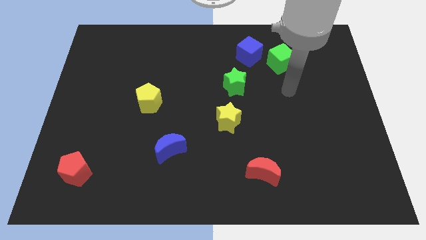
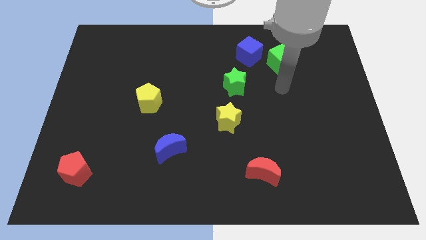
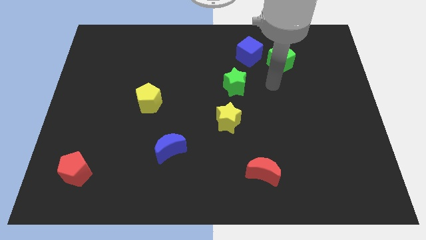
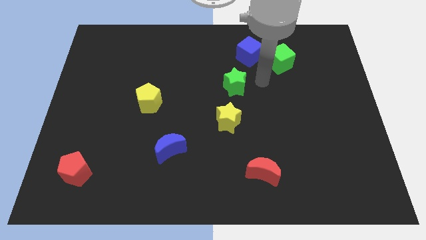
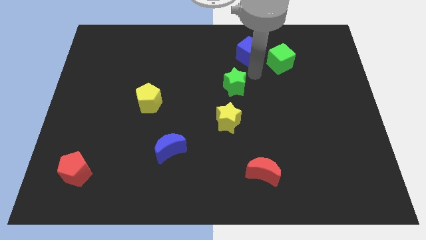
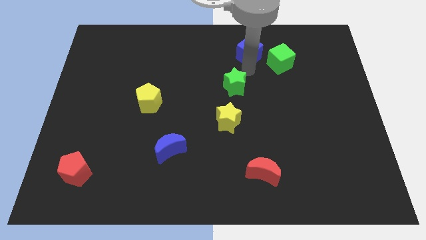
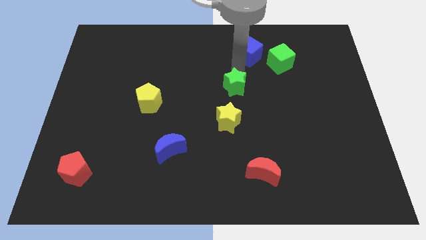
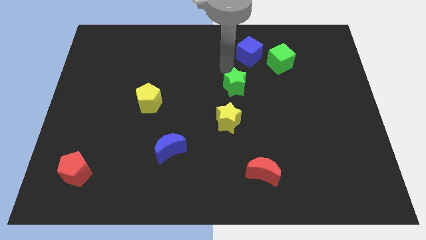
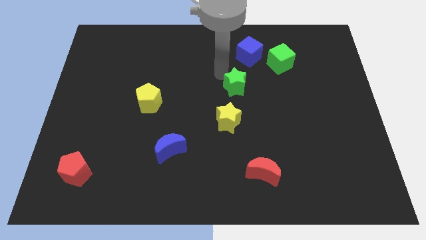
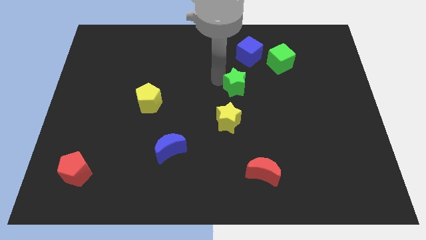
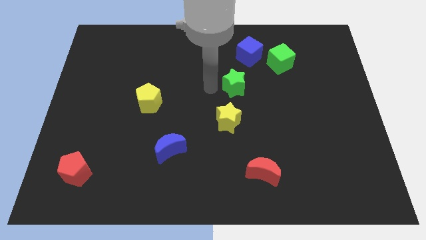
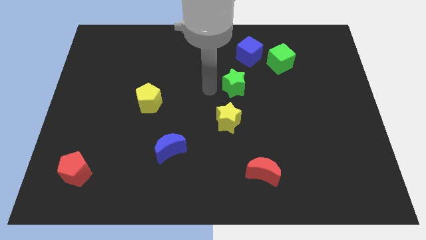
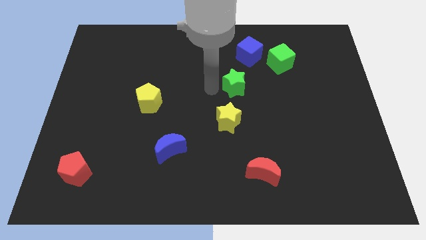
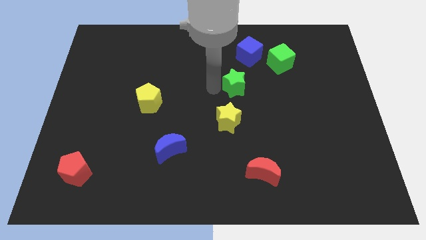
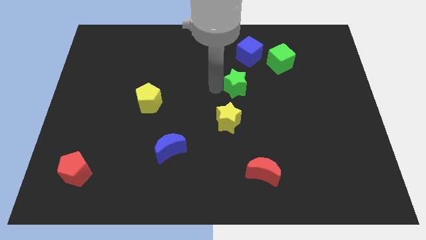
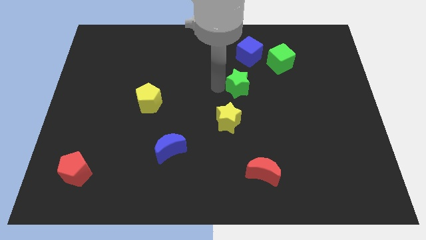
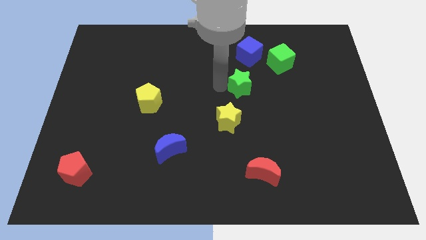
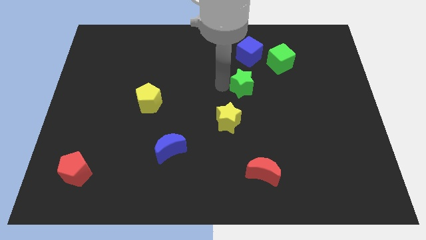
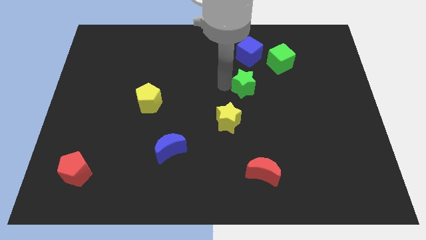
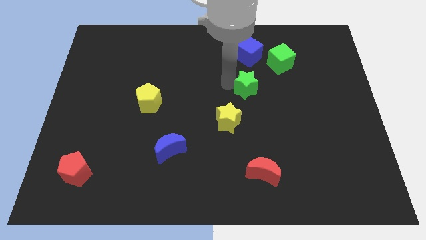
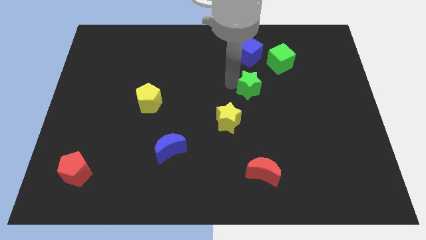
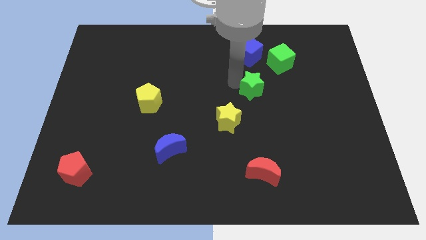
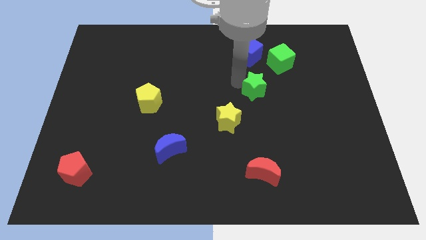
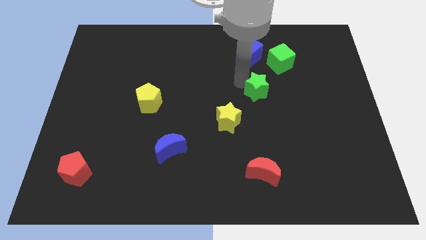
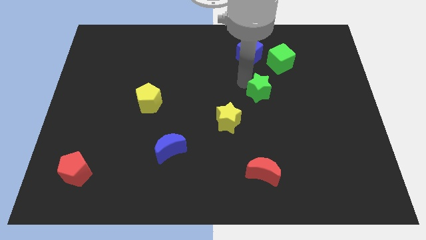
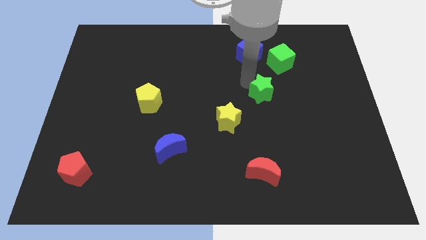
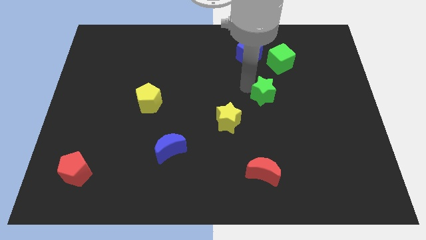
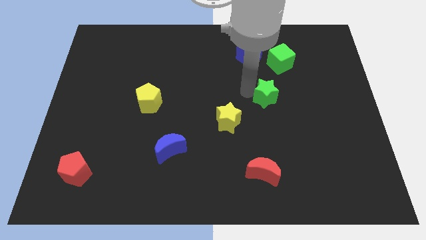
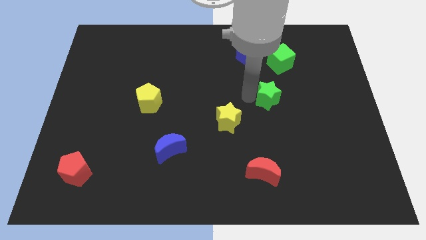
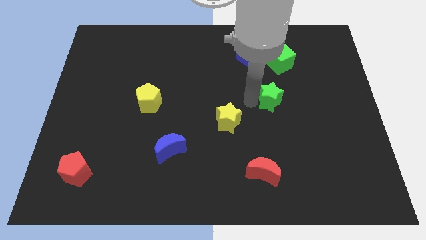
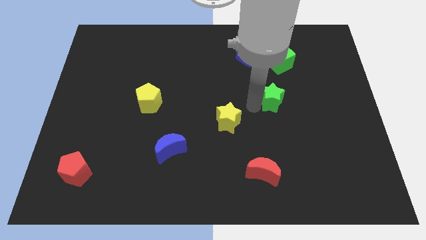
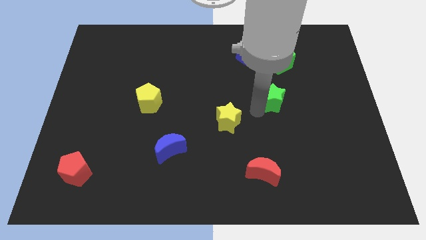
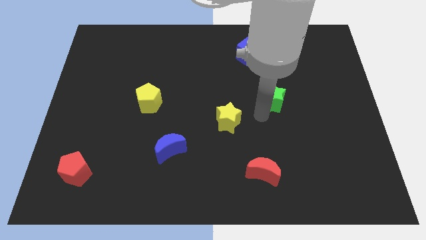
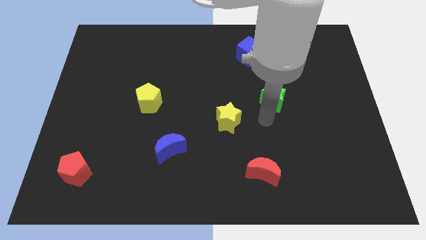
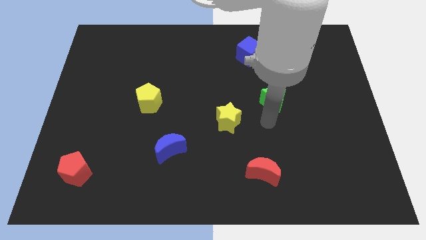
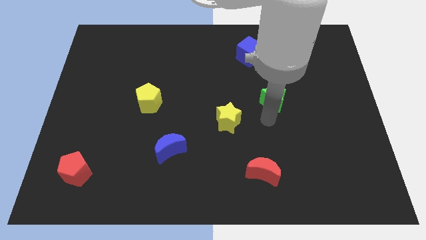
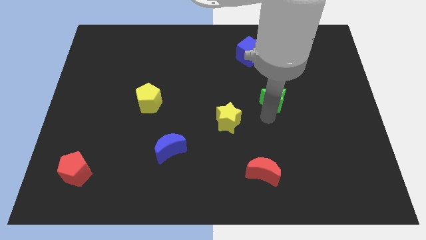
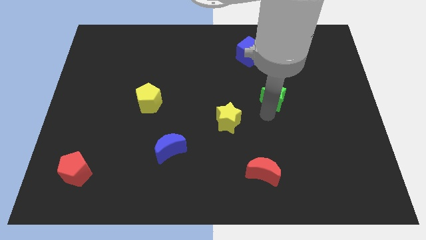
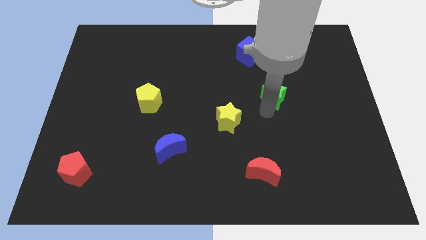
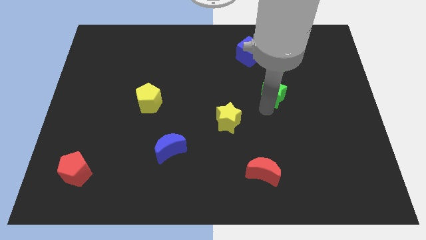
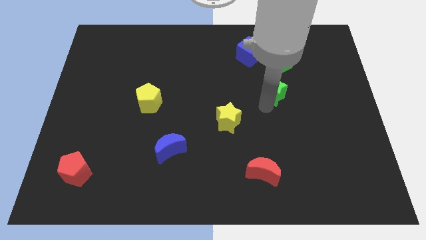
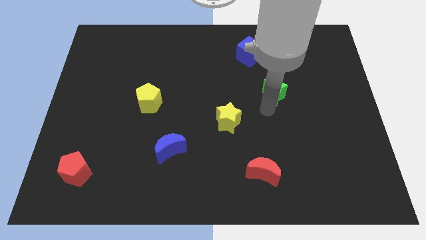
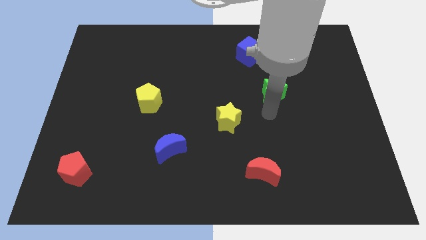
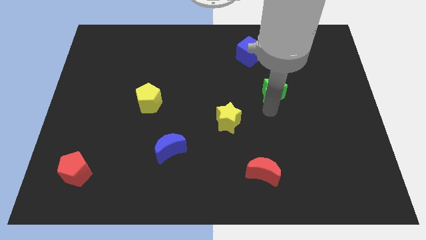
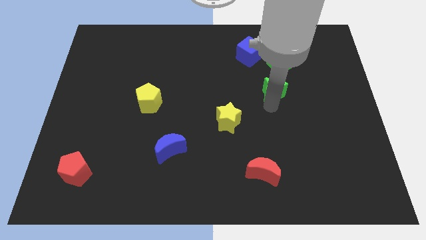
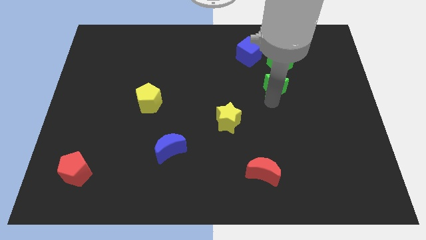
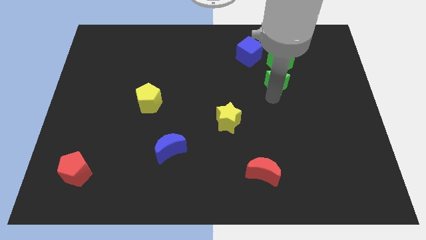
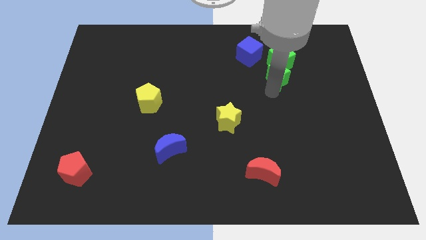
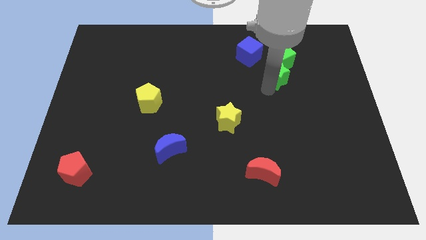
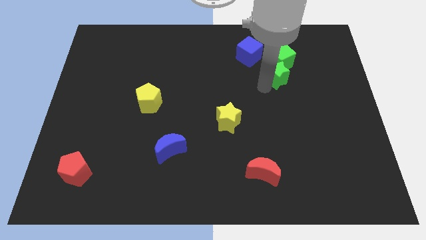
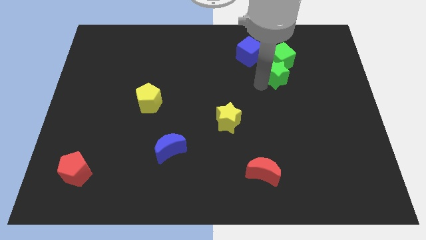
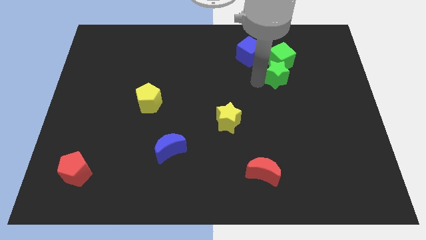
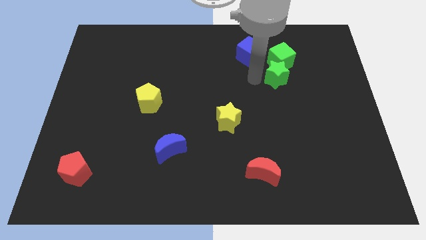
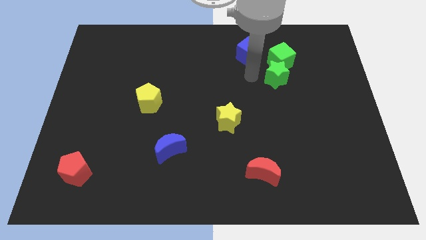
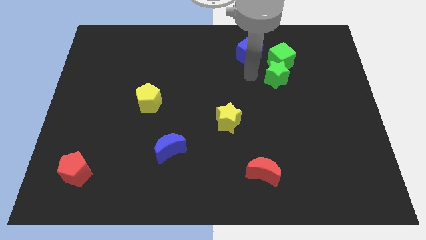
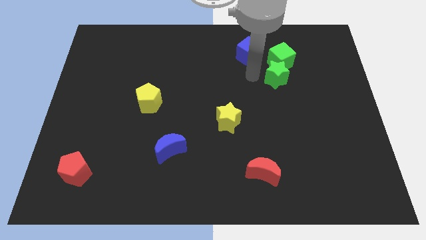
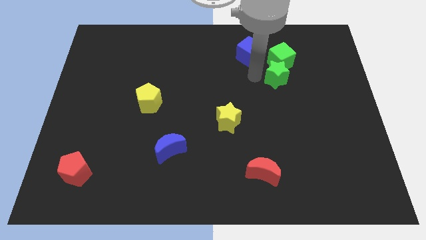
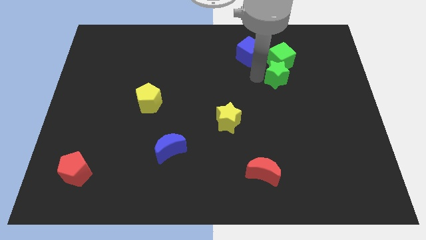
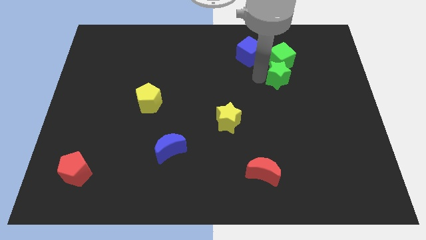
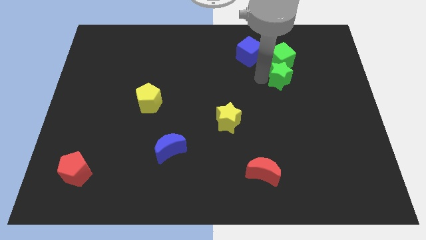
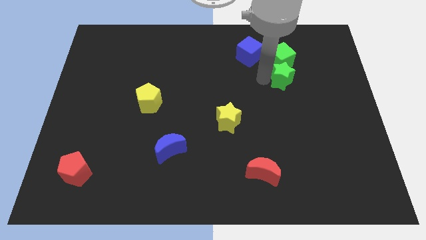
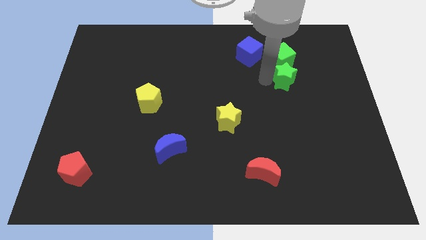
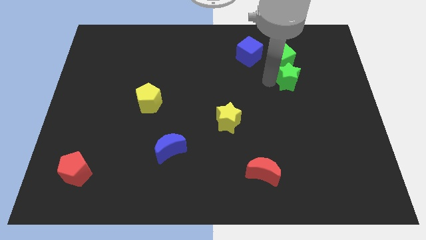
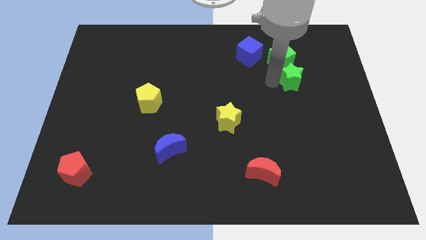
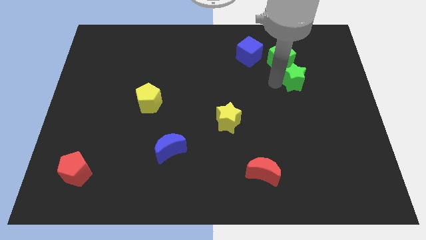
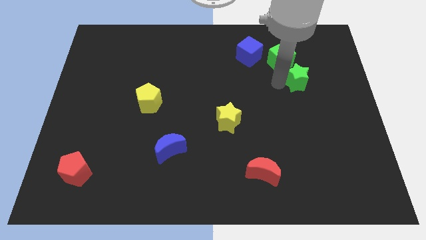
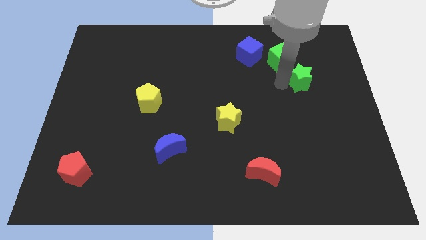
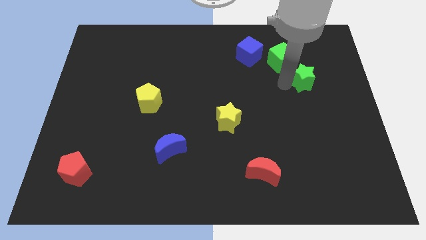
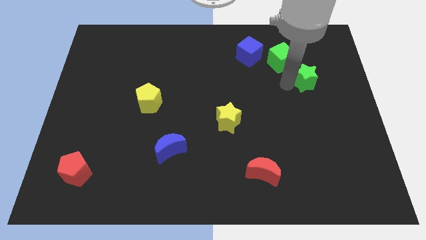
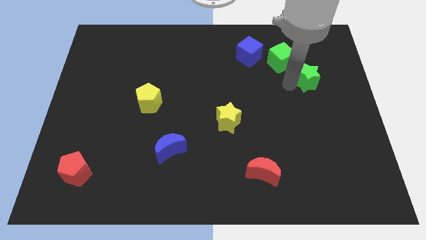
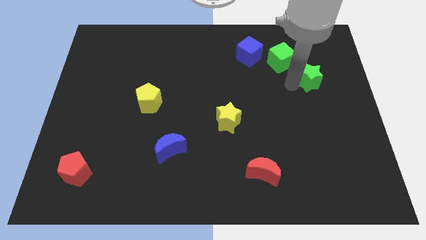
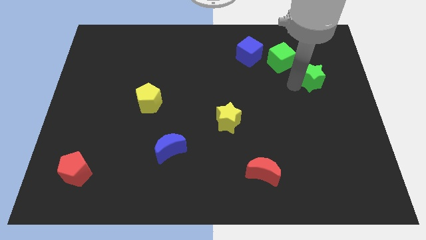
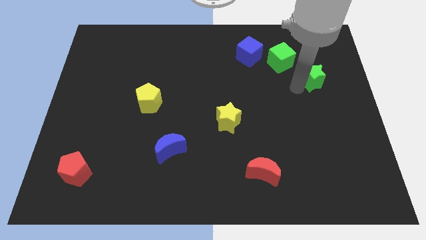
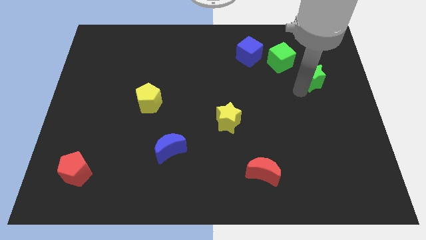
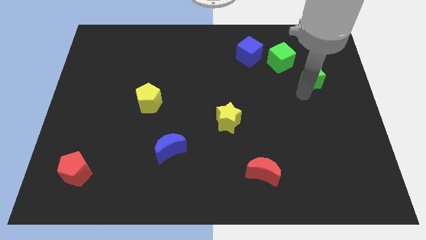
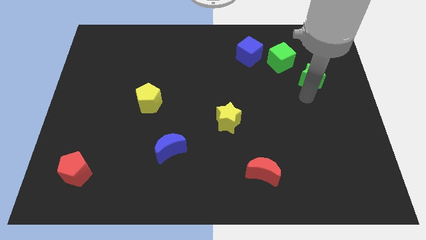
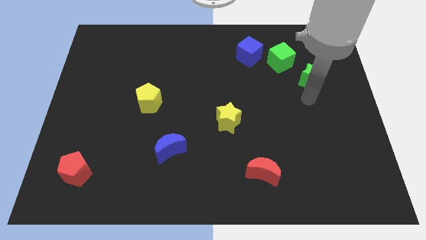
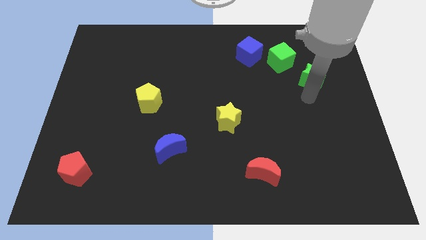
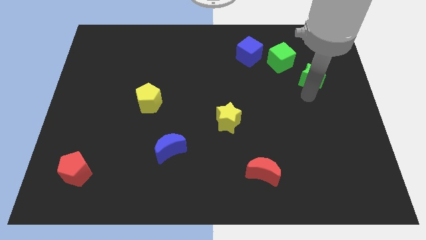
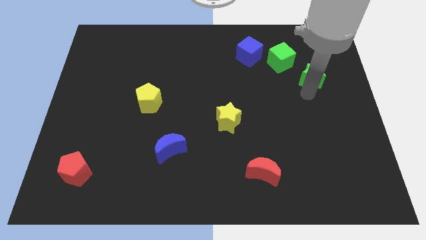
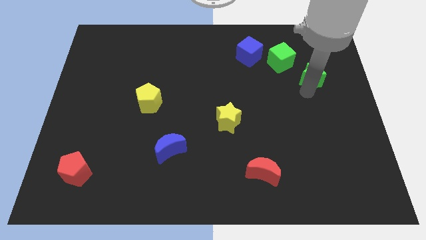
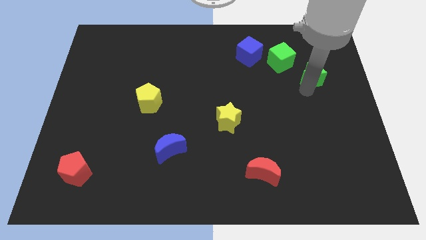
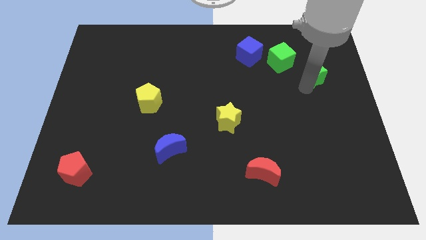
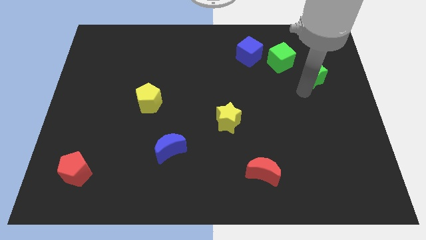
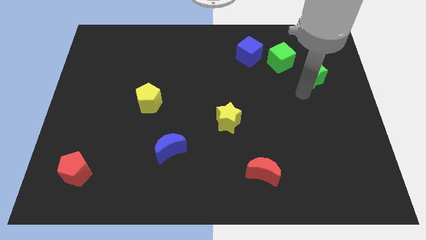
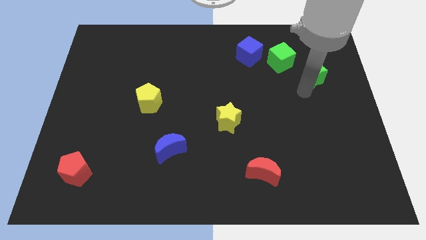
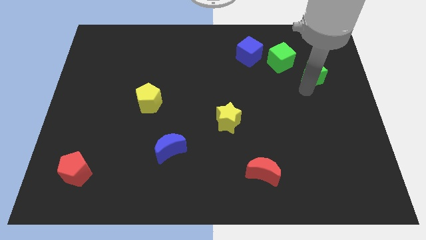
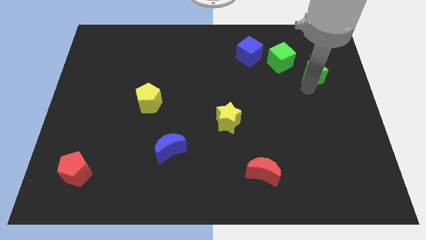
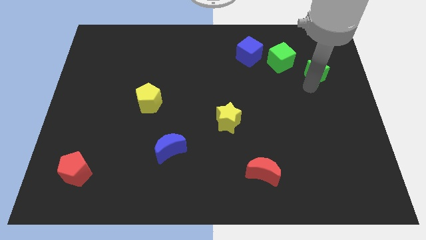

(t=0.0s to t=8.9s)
push the green star just right of the green cube
